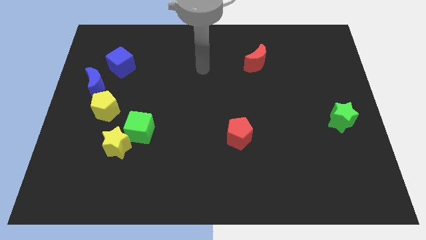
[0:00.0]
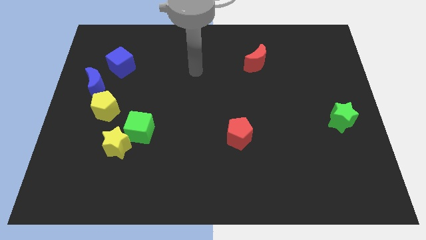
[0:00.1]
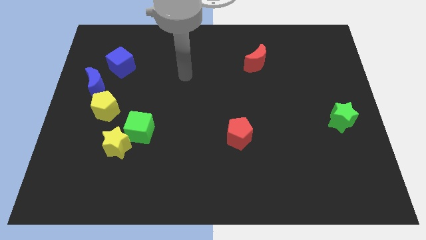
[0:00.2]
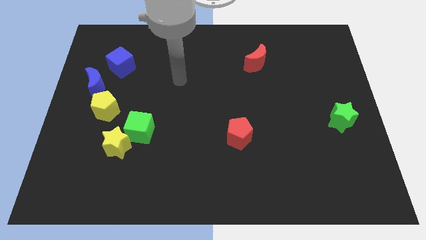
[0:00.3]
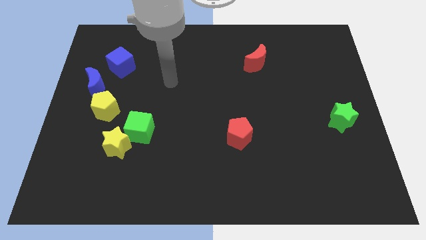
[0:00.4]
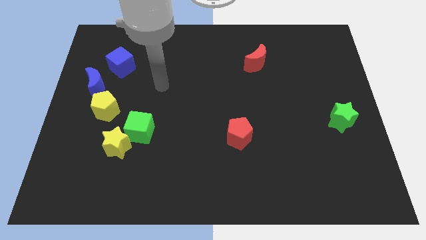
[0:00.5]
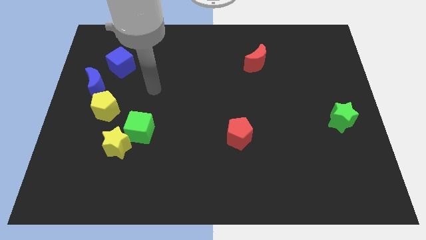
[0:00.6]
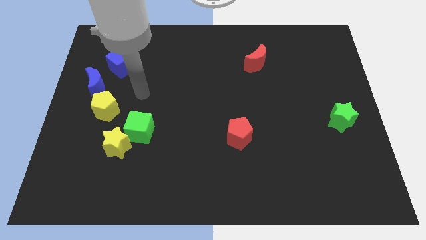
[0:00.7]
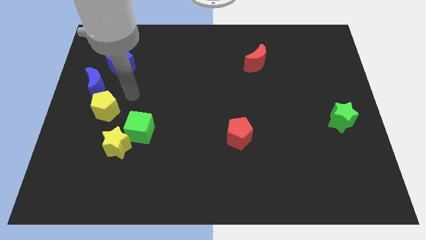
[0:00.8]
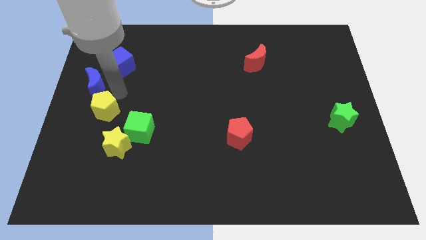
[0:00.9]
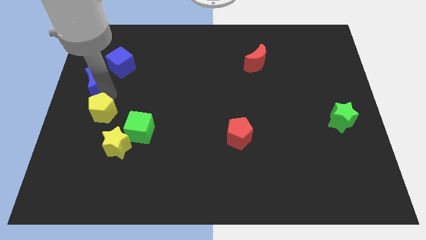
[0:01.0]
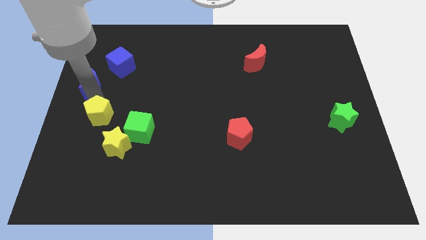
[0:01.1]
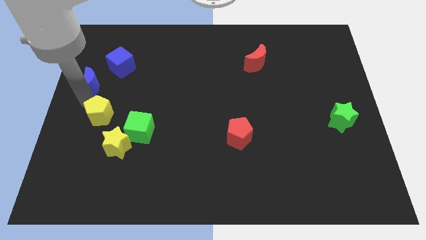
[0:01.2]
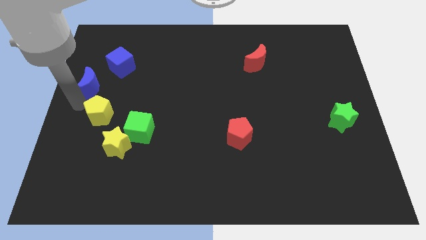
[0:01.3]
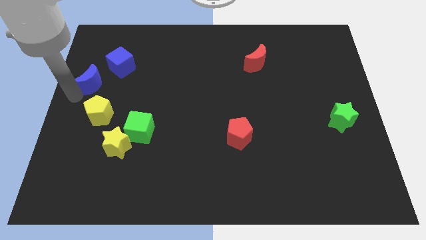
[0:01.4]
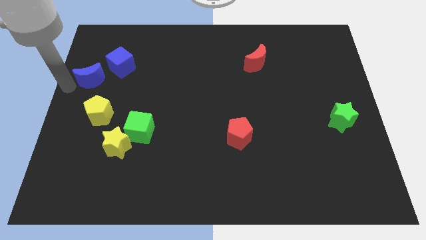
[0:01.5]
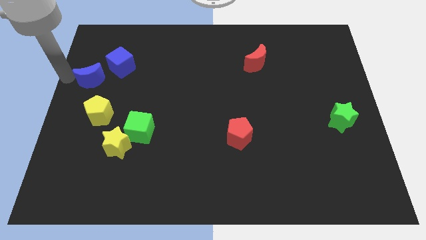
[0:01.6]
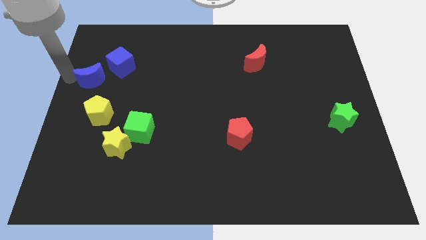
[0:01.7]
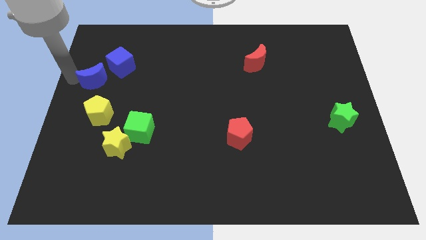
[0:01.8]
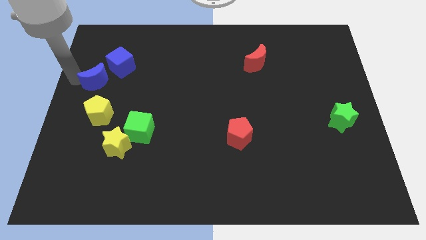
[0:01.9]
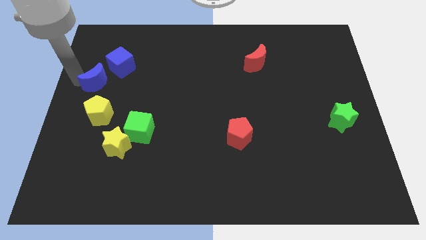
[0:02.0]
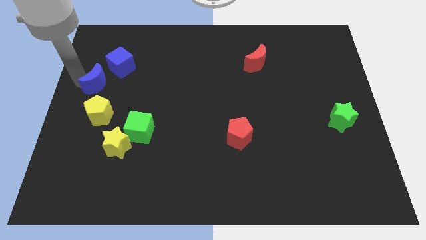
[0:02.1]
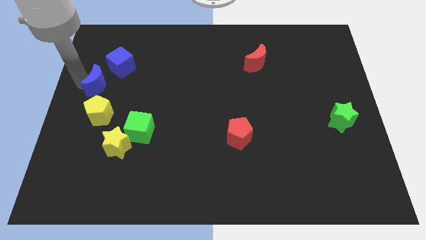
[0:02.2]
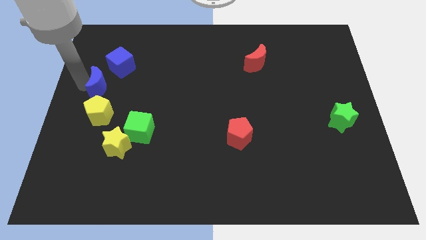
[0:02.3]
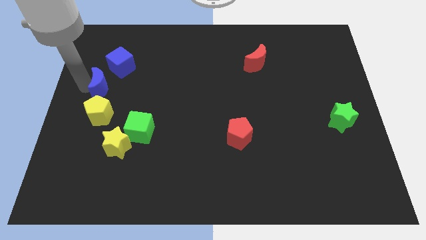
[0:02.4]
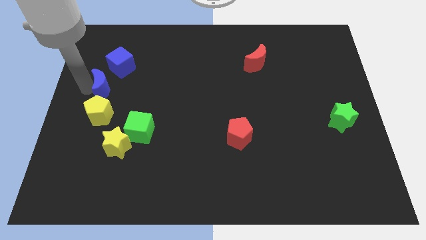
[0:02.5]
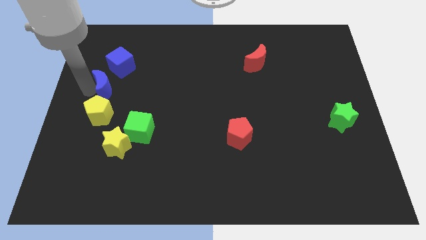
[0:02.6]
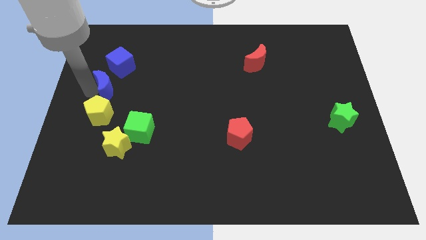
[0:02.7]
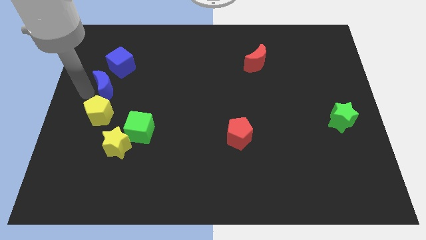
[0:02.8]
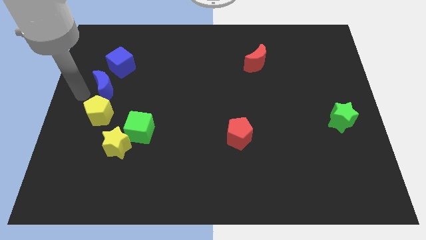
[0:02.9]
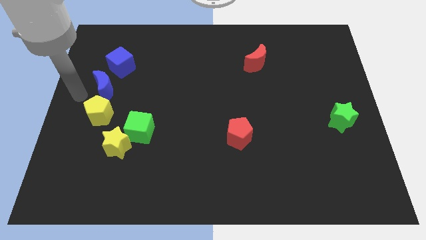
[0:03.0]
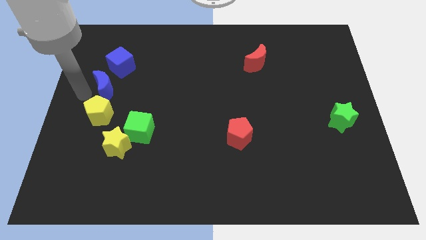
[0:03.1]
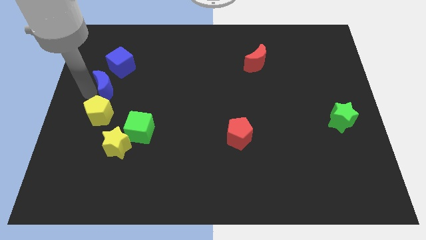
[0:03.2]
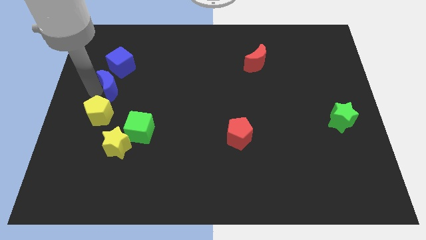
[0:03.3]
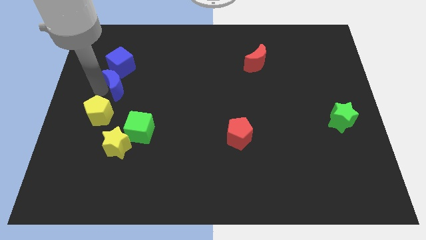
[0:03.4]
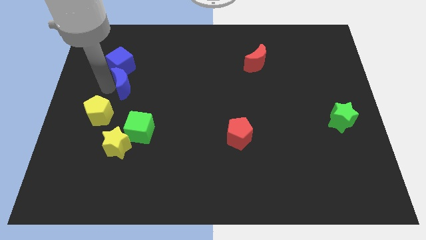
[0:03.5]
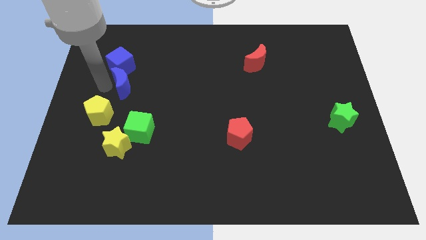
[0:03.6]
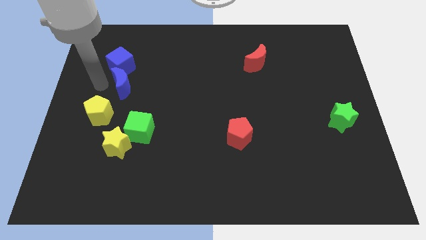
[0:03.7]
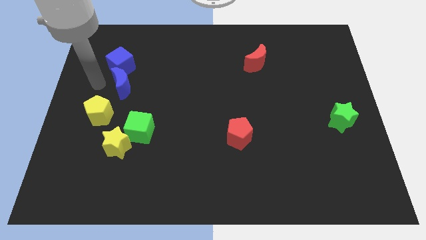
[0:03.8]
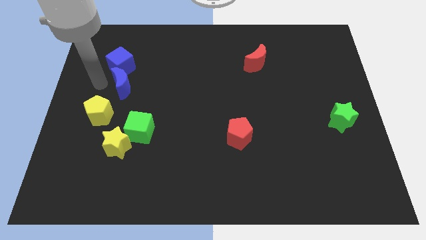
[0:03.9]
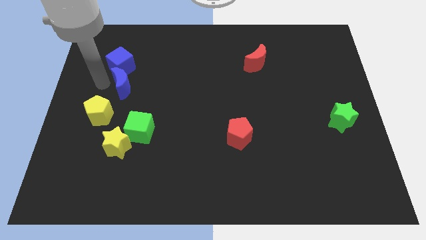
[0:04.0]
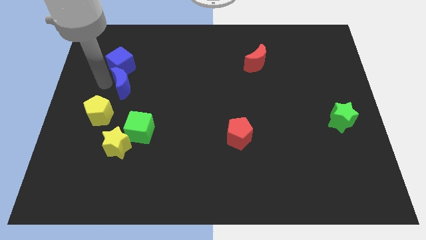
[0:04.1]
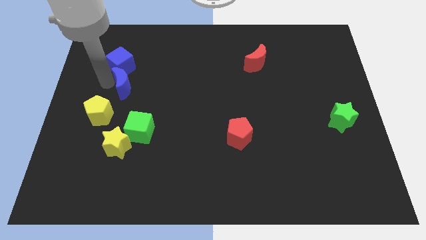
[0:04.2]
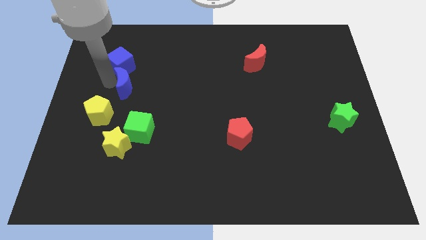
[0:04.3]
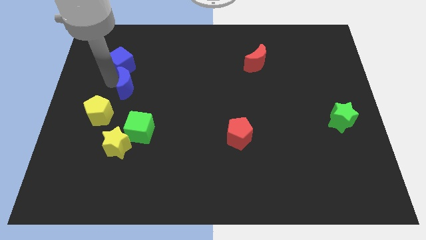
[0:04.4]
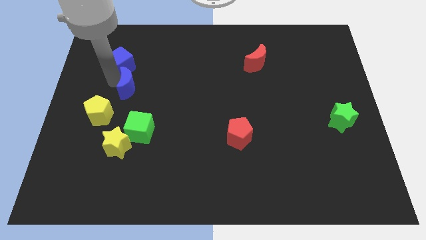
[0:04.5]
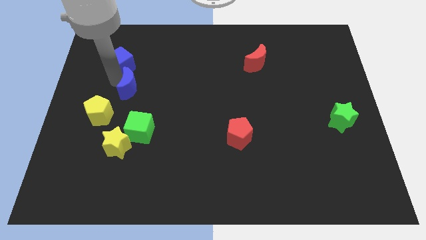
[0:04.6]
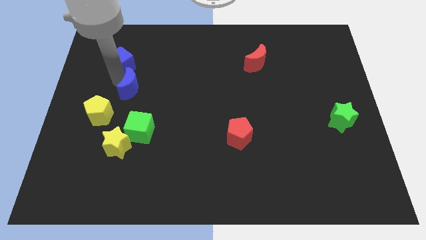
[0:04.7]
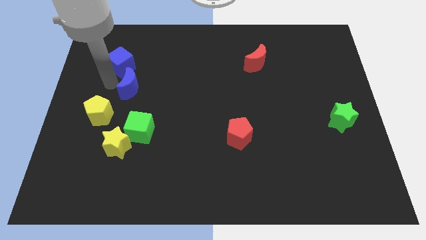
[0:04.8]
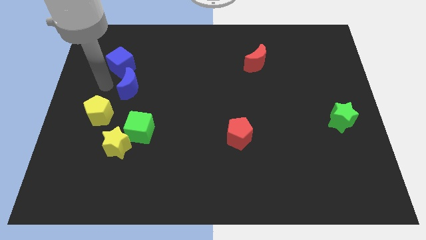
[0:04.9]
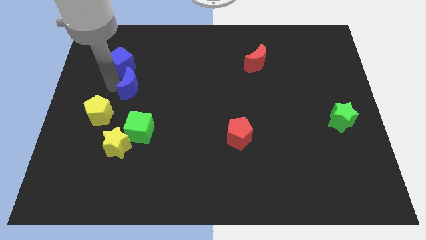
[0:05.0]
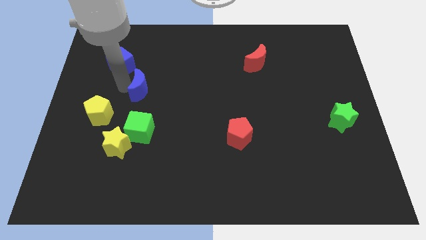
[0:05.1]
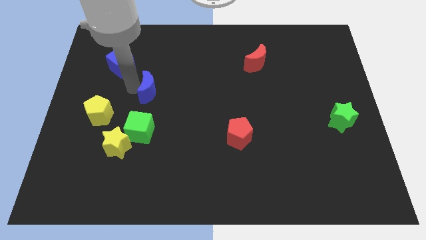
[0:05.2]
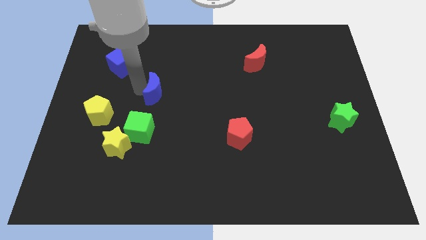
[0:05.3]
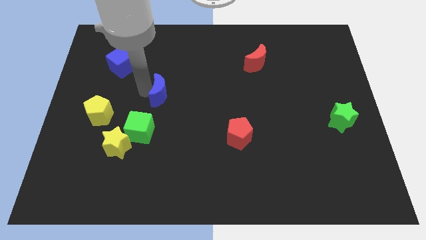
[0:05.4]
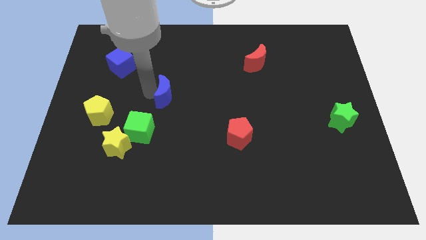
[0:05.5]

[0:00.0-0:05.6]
slide the blue moon to the center
